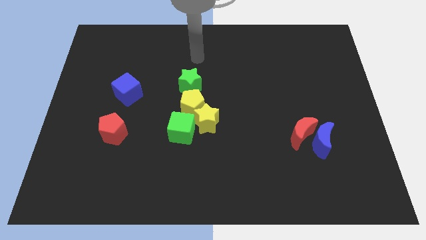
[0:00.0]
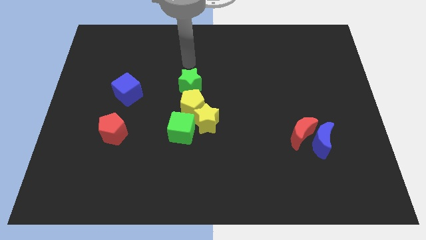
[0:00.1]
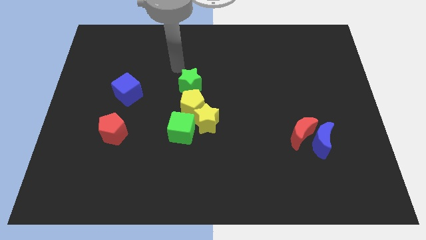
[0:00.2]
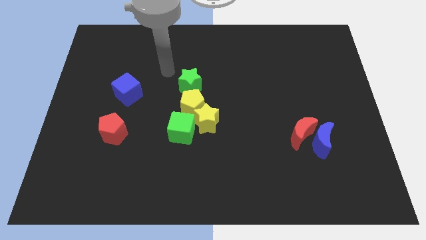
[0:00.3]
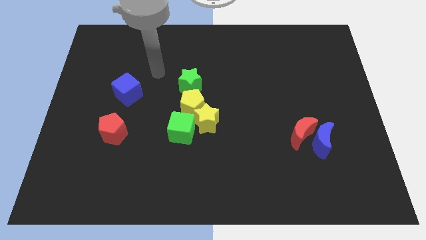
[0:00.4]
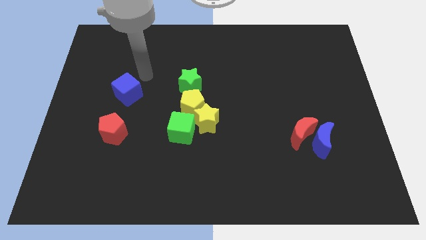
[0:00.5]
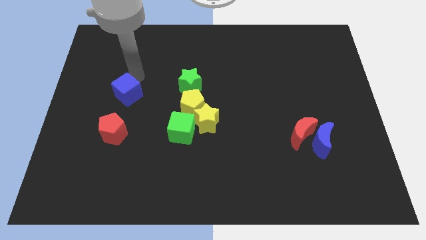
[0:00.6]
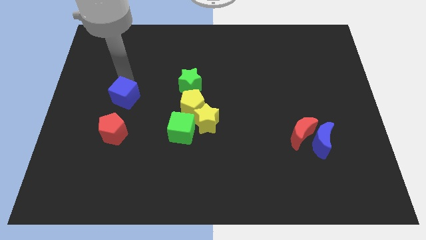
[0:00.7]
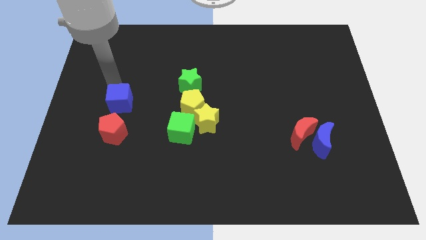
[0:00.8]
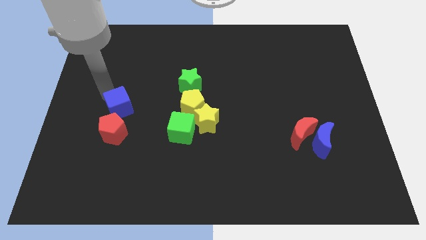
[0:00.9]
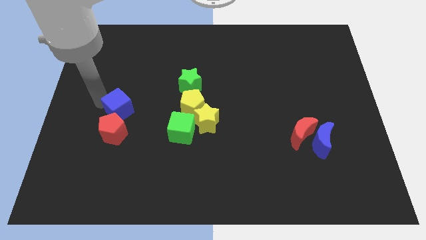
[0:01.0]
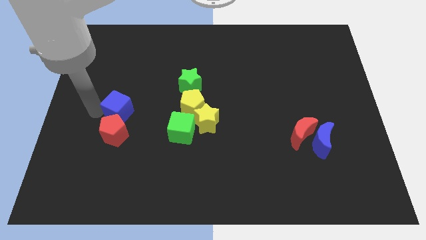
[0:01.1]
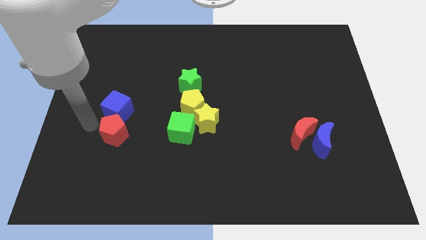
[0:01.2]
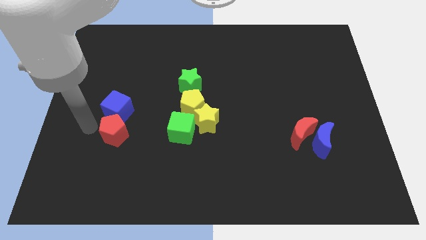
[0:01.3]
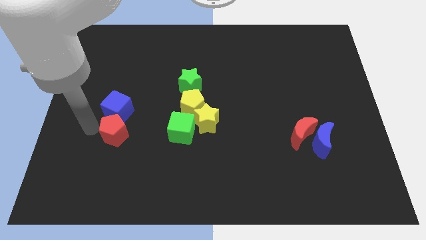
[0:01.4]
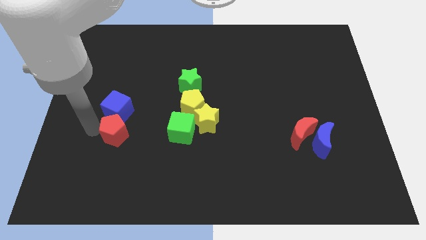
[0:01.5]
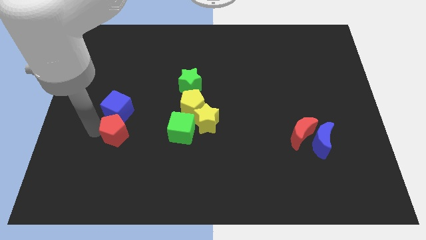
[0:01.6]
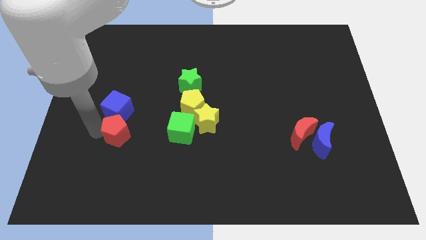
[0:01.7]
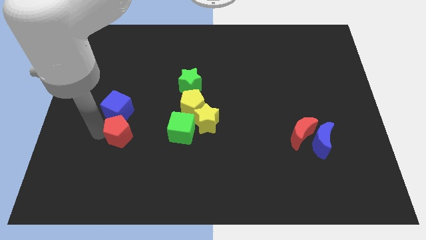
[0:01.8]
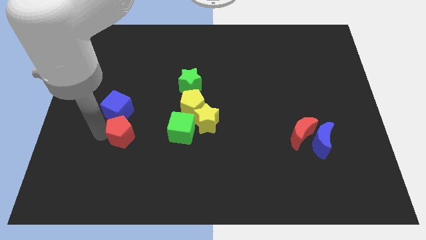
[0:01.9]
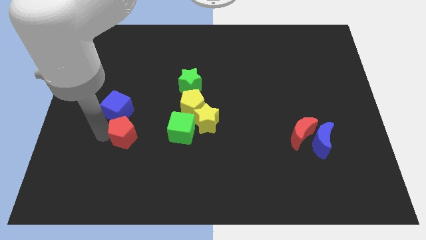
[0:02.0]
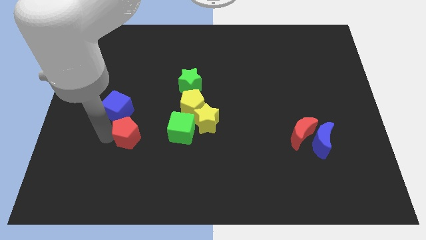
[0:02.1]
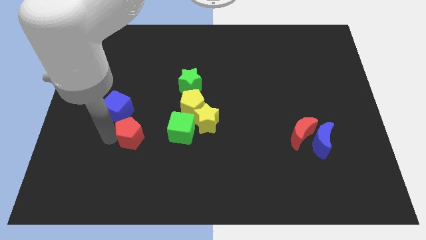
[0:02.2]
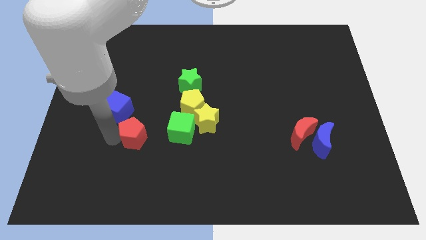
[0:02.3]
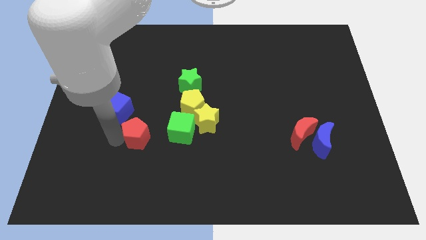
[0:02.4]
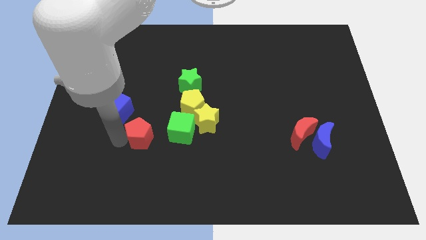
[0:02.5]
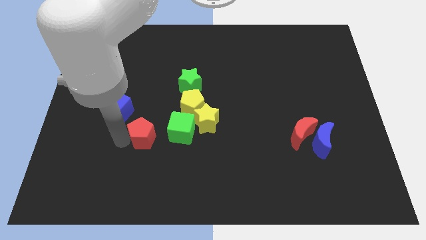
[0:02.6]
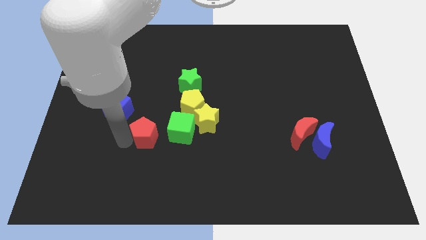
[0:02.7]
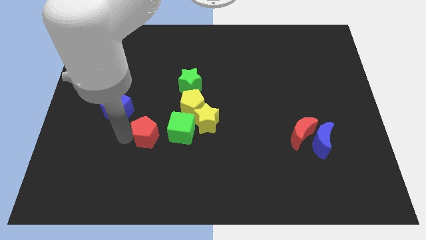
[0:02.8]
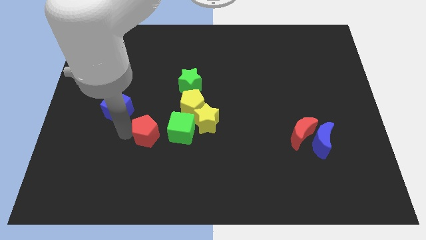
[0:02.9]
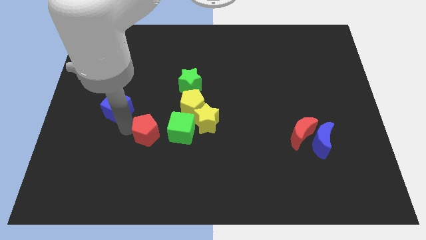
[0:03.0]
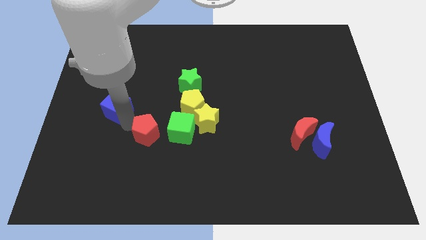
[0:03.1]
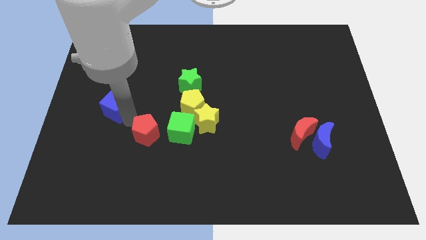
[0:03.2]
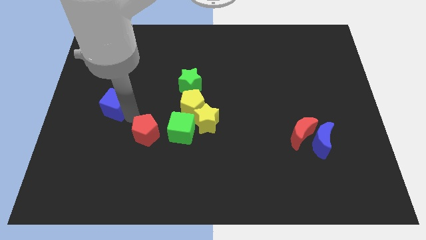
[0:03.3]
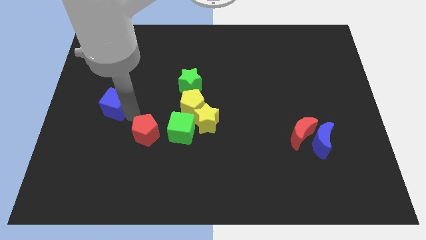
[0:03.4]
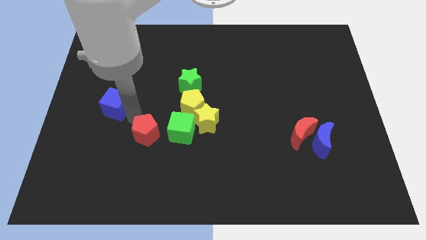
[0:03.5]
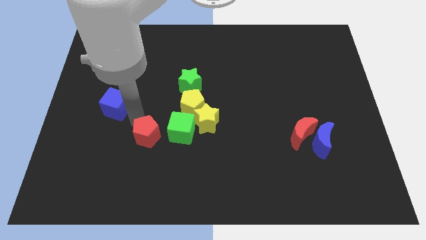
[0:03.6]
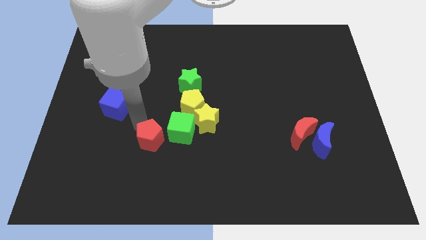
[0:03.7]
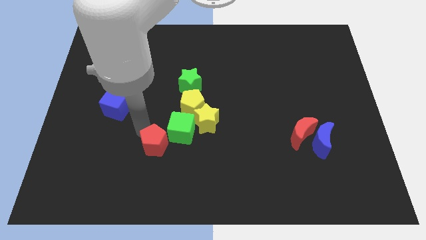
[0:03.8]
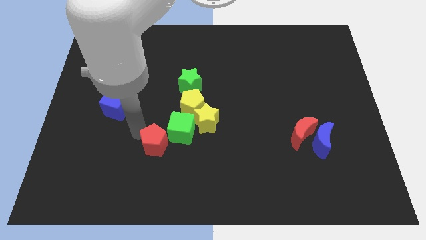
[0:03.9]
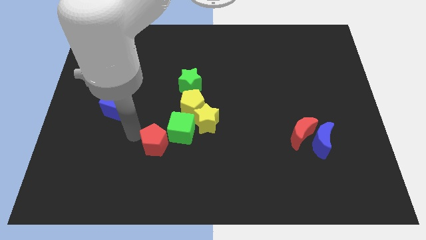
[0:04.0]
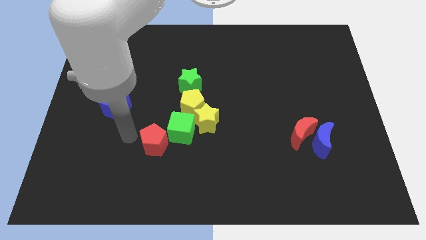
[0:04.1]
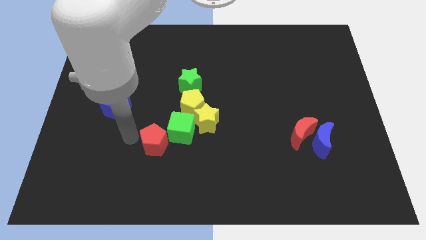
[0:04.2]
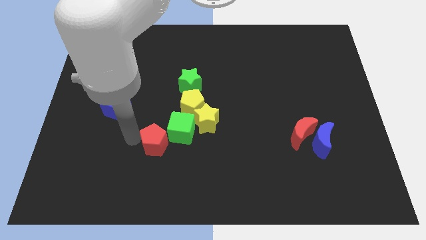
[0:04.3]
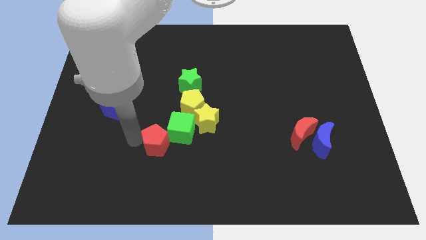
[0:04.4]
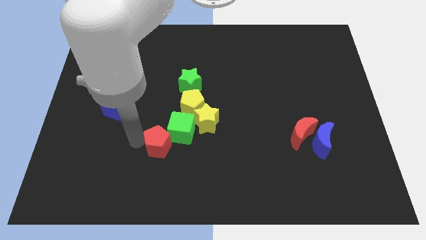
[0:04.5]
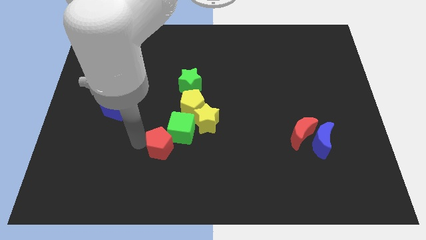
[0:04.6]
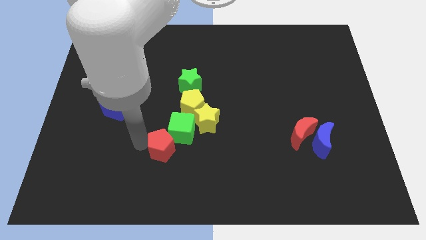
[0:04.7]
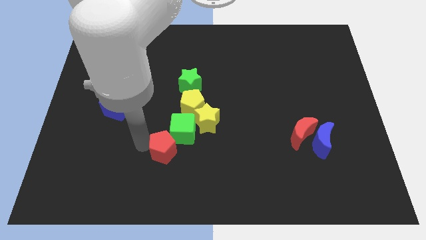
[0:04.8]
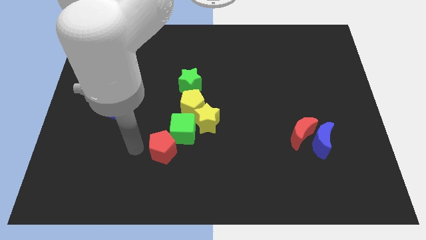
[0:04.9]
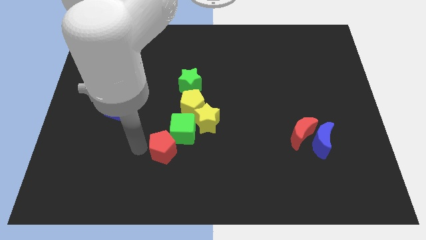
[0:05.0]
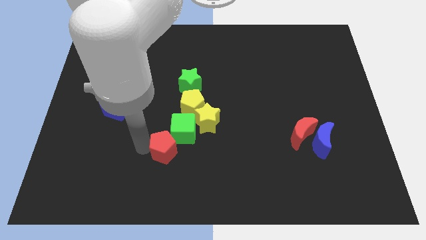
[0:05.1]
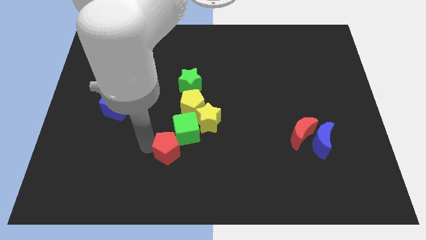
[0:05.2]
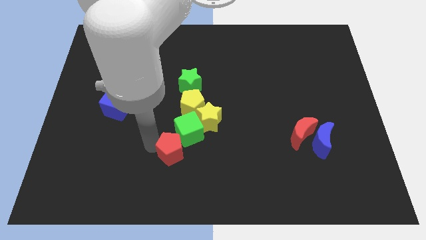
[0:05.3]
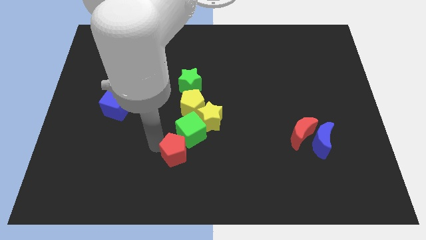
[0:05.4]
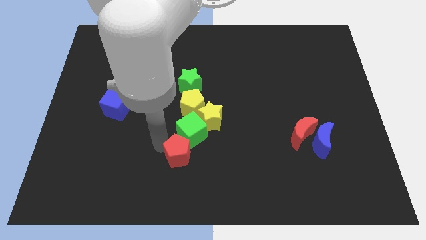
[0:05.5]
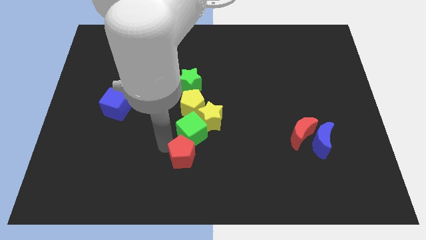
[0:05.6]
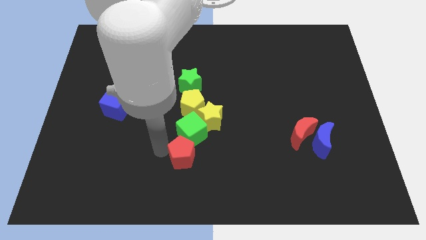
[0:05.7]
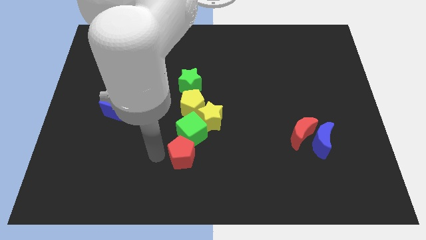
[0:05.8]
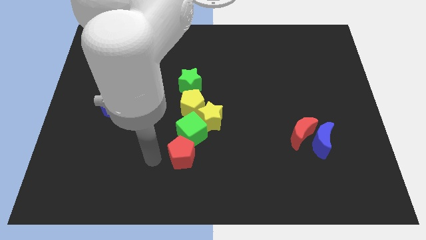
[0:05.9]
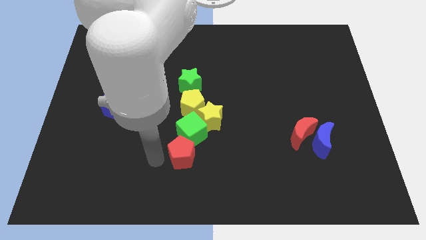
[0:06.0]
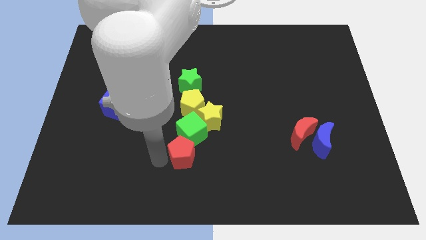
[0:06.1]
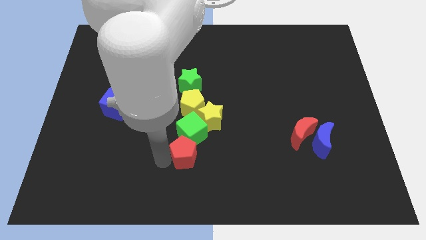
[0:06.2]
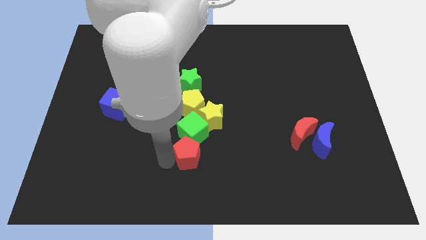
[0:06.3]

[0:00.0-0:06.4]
push the red pentagon to the bottom right of the green cube
